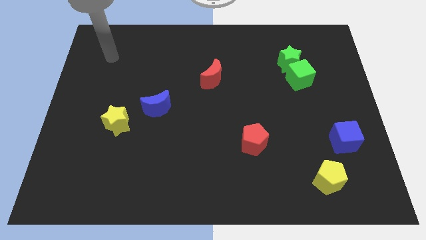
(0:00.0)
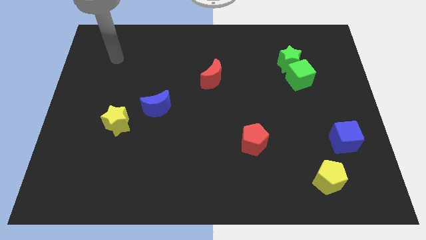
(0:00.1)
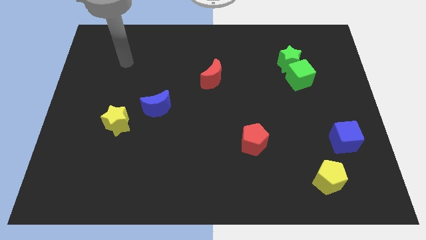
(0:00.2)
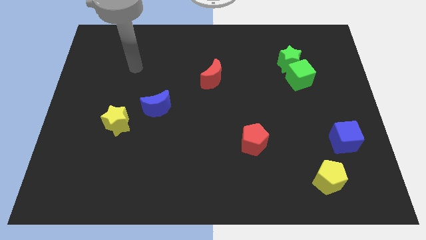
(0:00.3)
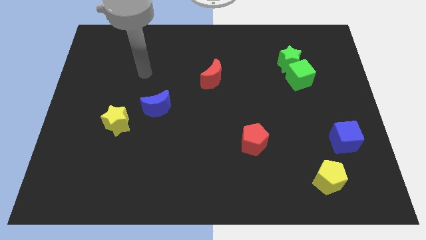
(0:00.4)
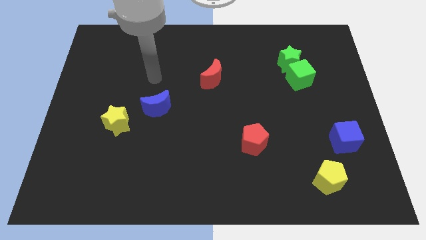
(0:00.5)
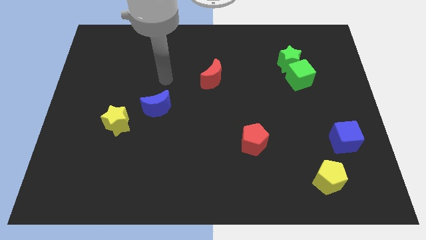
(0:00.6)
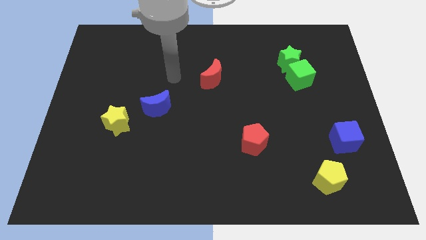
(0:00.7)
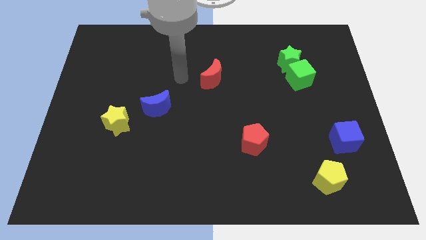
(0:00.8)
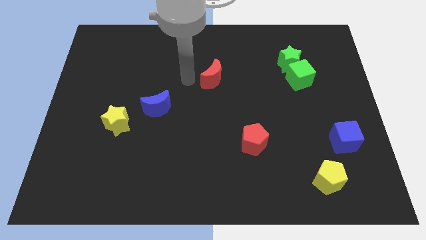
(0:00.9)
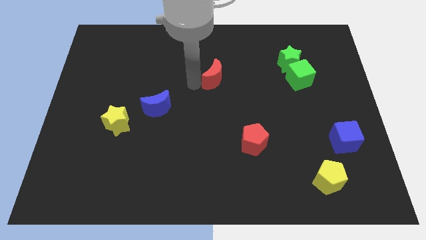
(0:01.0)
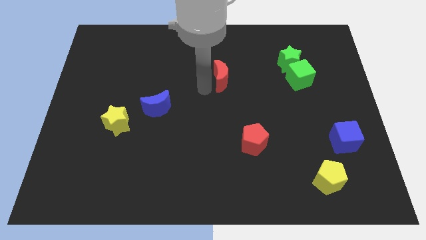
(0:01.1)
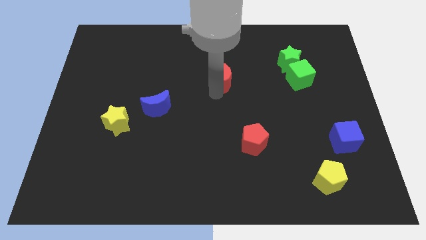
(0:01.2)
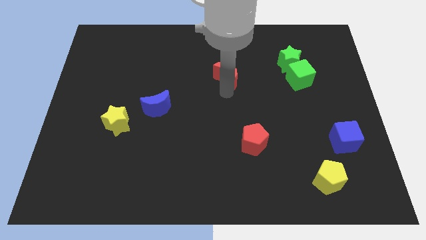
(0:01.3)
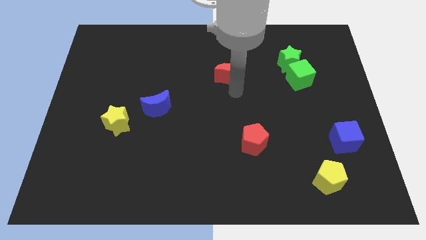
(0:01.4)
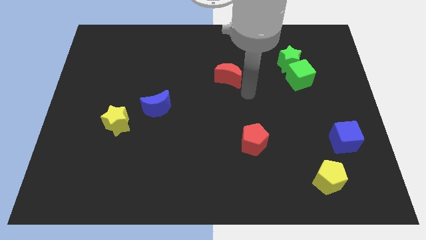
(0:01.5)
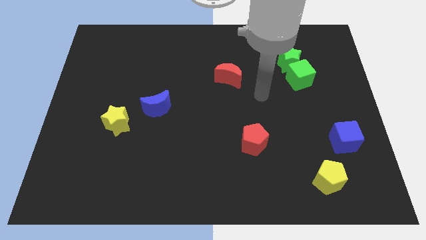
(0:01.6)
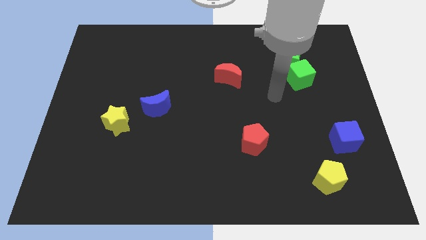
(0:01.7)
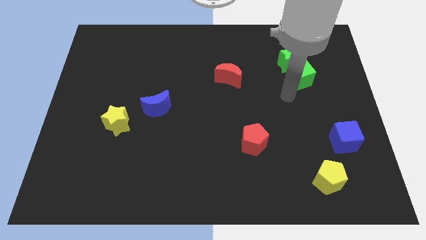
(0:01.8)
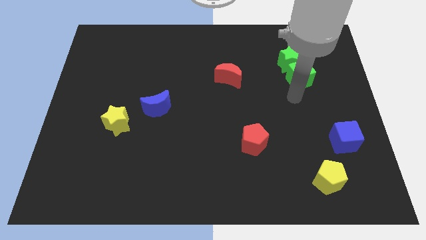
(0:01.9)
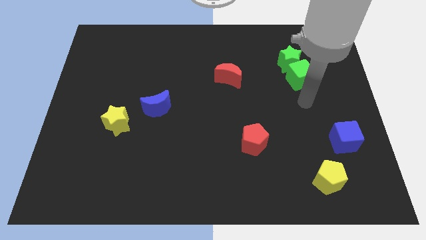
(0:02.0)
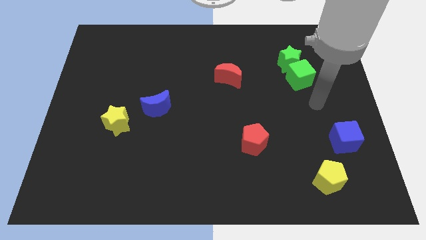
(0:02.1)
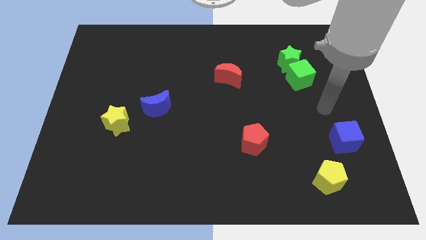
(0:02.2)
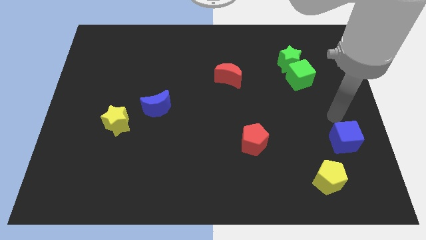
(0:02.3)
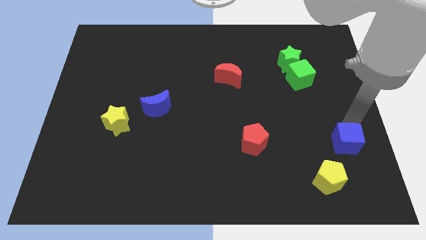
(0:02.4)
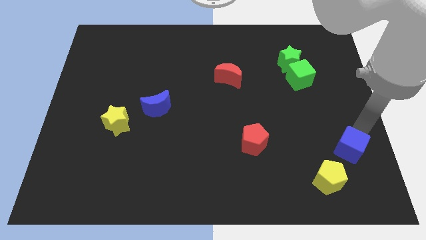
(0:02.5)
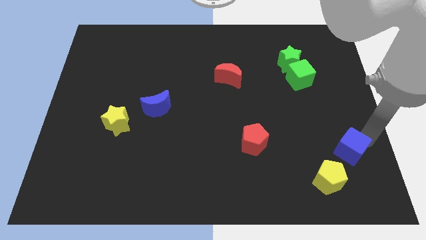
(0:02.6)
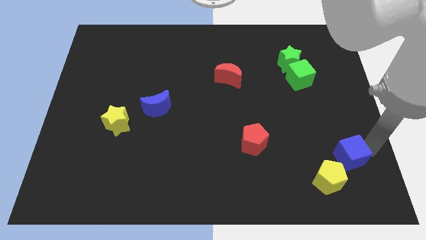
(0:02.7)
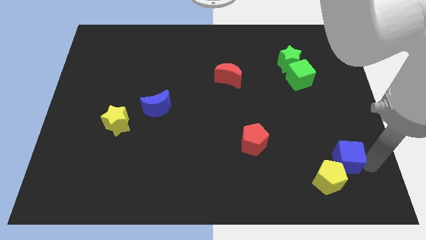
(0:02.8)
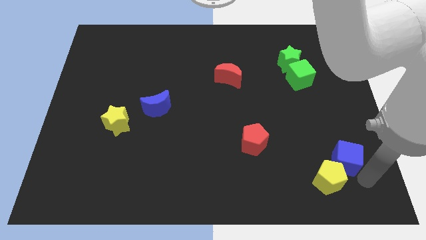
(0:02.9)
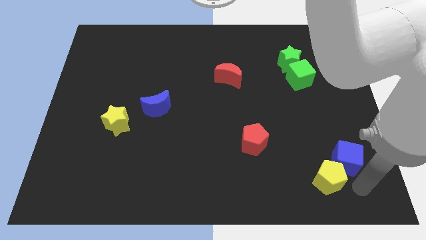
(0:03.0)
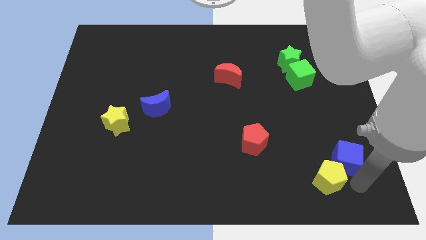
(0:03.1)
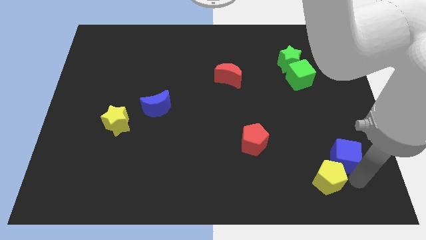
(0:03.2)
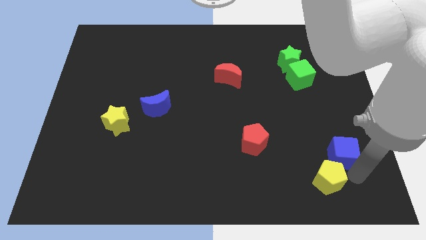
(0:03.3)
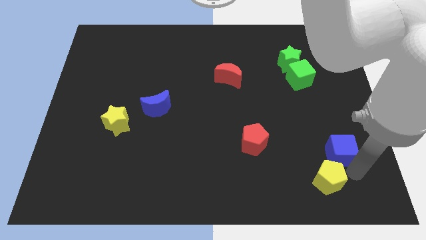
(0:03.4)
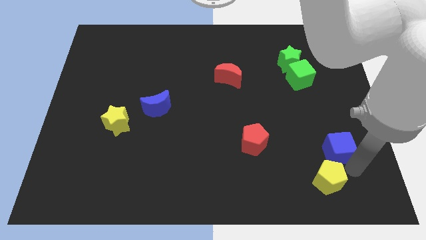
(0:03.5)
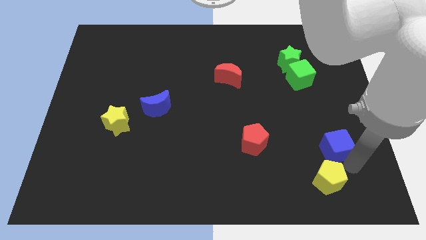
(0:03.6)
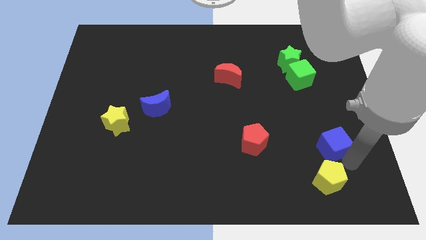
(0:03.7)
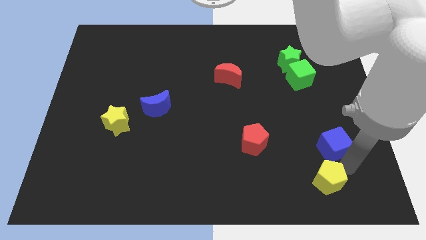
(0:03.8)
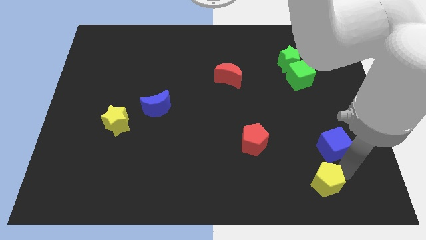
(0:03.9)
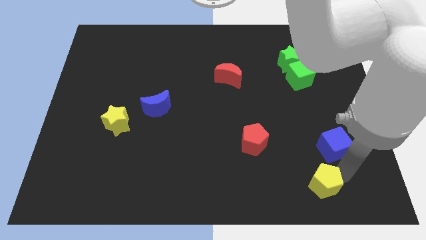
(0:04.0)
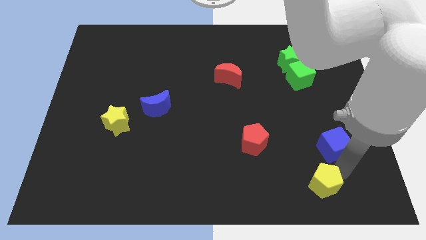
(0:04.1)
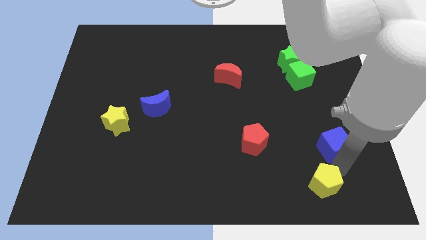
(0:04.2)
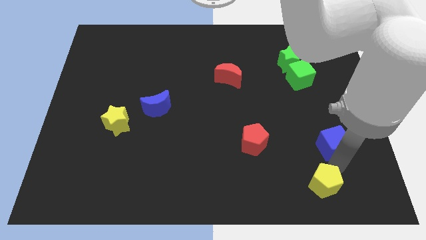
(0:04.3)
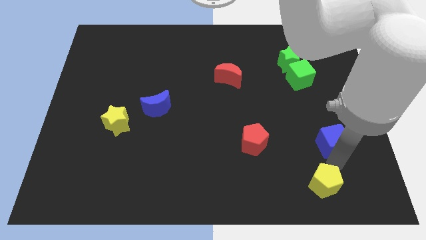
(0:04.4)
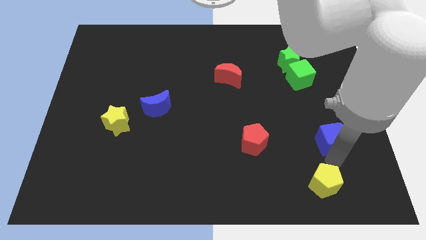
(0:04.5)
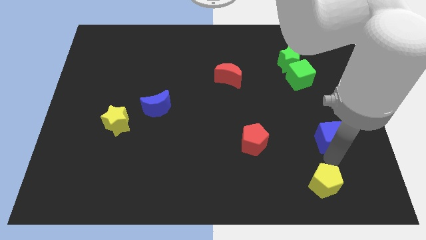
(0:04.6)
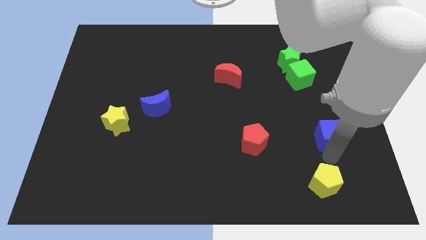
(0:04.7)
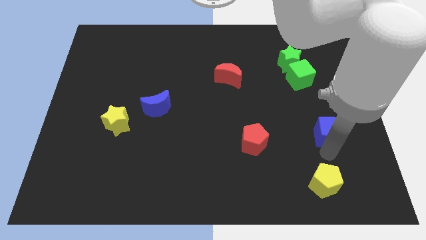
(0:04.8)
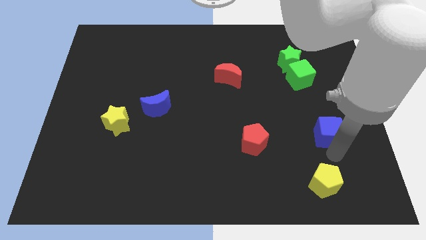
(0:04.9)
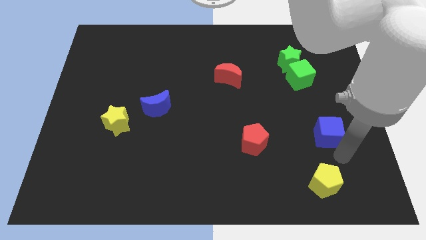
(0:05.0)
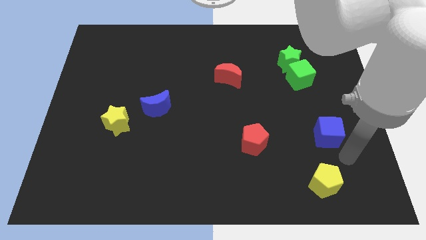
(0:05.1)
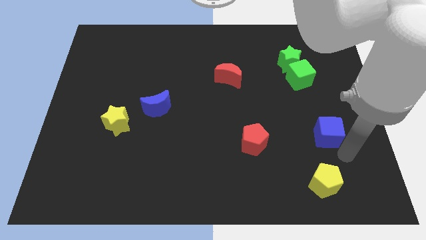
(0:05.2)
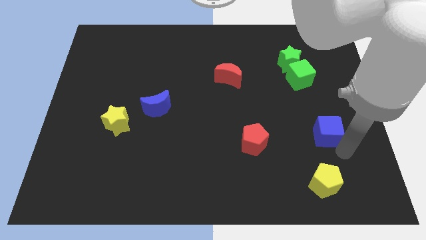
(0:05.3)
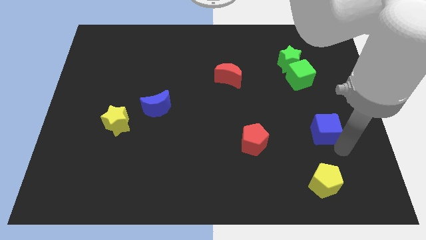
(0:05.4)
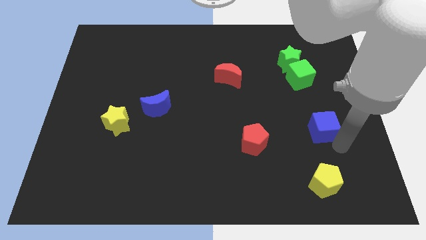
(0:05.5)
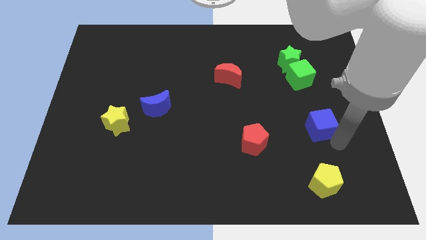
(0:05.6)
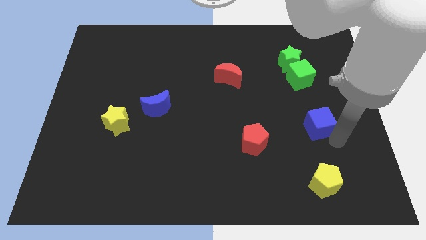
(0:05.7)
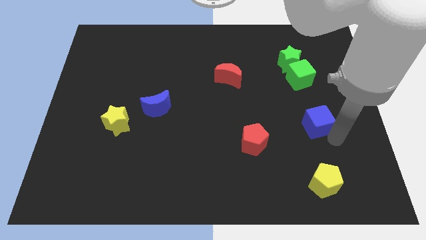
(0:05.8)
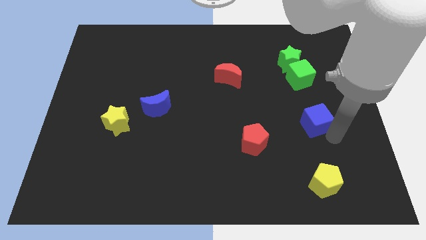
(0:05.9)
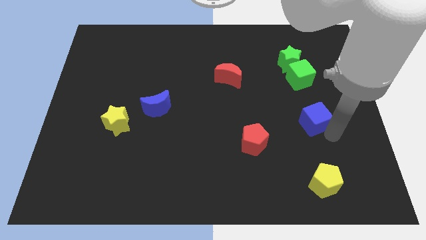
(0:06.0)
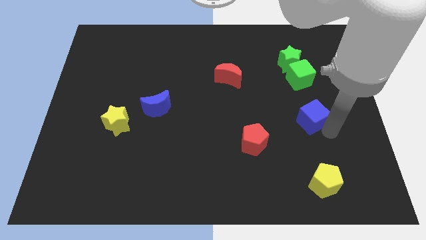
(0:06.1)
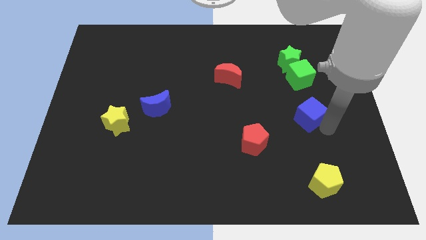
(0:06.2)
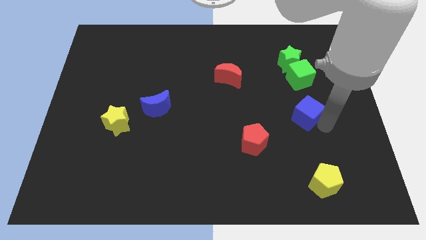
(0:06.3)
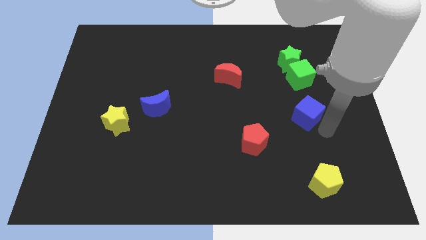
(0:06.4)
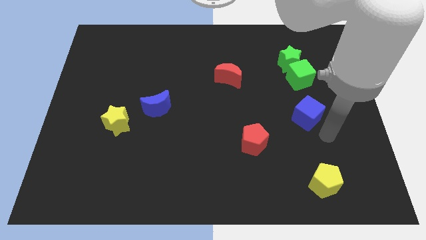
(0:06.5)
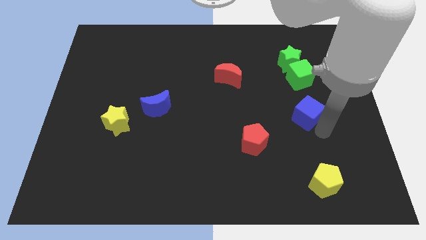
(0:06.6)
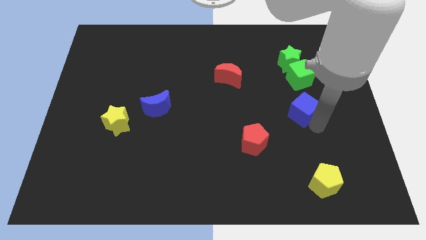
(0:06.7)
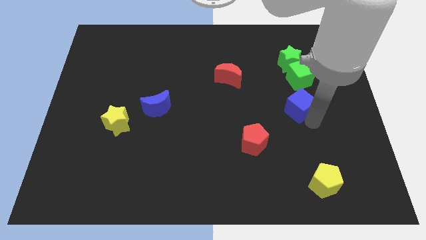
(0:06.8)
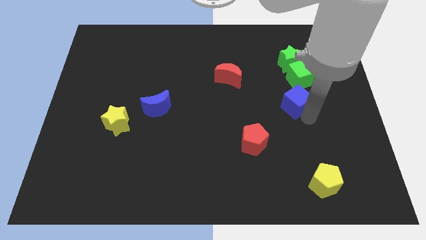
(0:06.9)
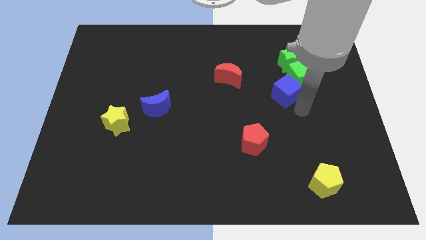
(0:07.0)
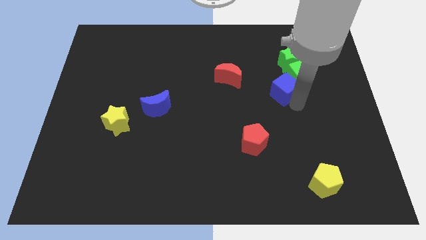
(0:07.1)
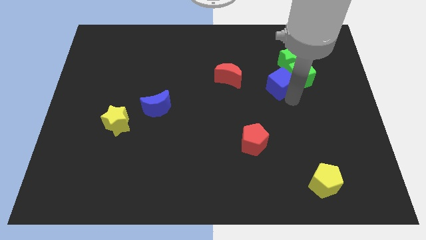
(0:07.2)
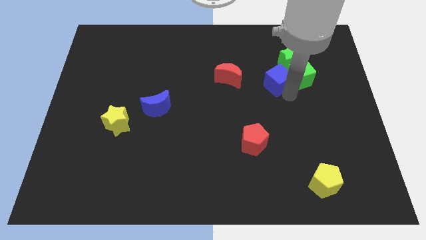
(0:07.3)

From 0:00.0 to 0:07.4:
slide the blue cube up and then to the left

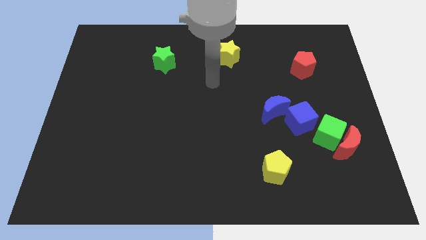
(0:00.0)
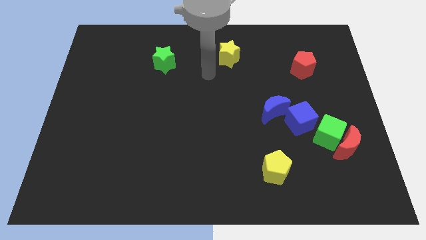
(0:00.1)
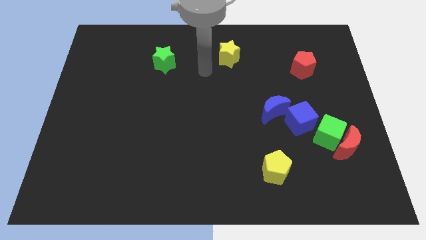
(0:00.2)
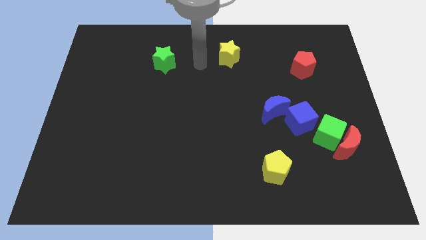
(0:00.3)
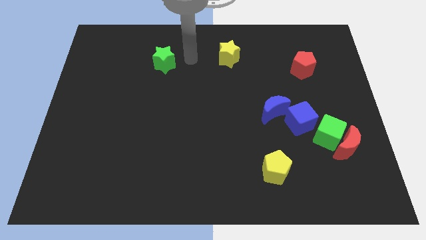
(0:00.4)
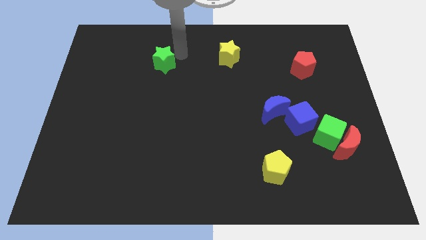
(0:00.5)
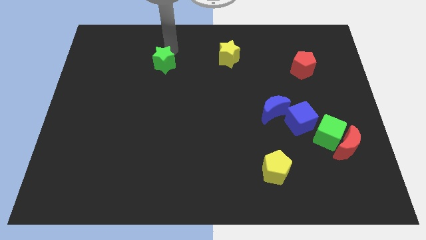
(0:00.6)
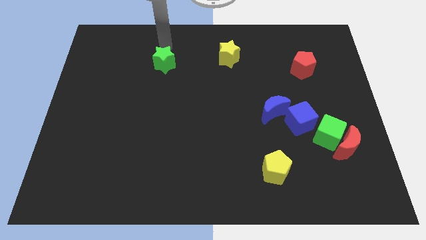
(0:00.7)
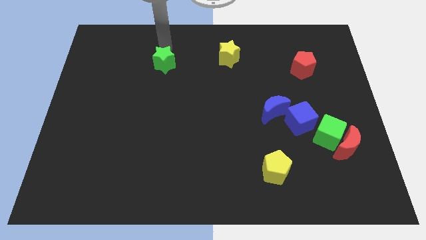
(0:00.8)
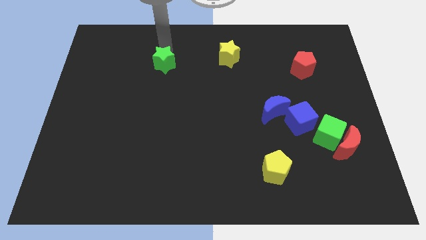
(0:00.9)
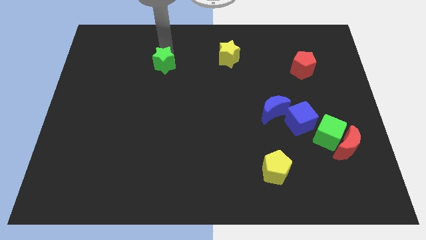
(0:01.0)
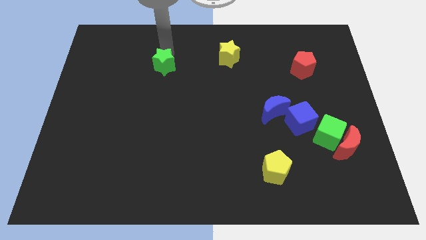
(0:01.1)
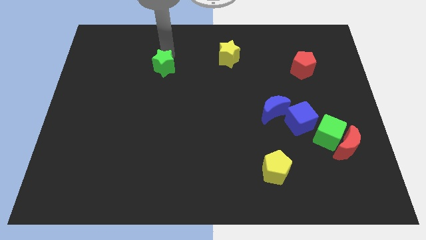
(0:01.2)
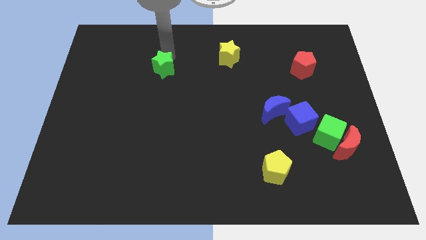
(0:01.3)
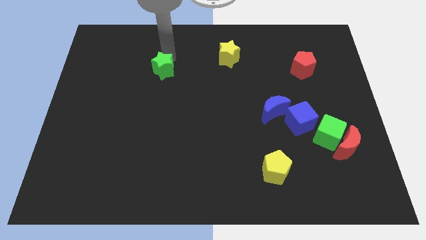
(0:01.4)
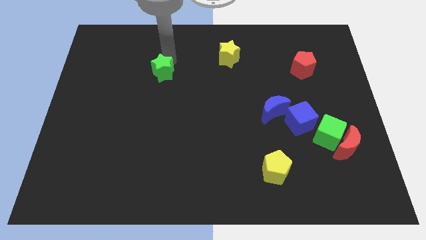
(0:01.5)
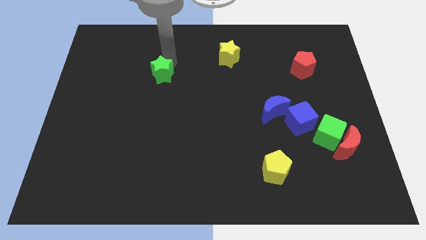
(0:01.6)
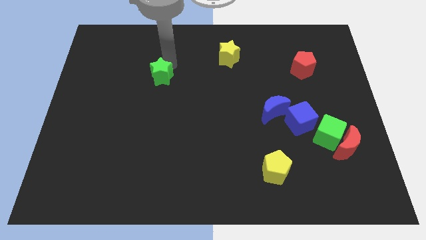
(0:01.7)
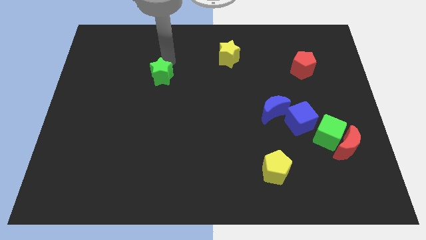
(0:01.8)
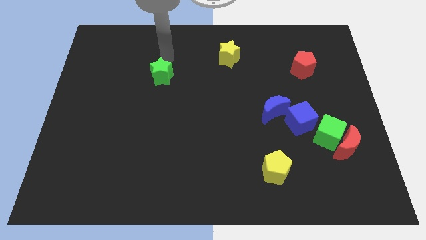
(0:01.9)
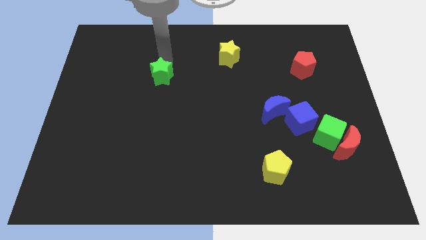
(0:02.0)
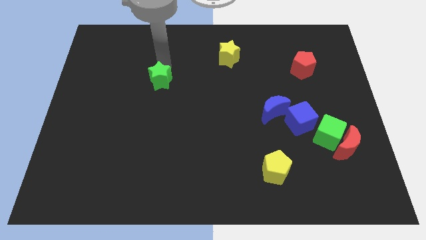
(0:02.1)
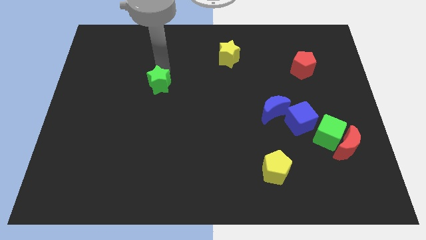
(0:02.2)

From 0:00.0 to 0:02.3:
push the green star down slightly
